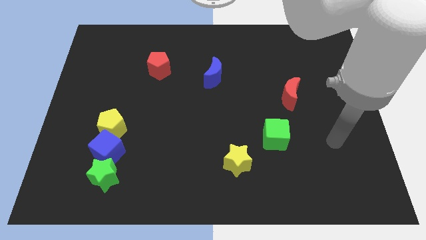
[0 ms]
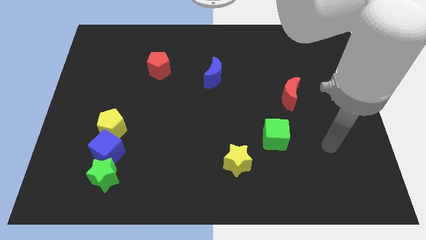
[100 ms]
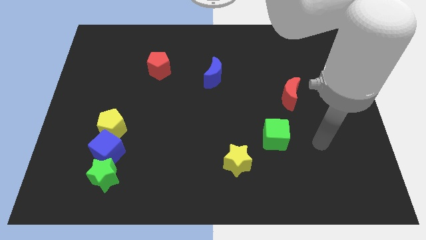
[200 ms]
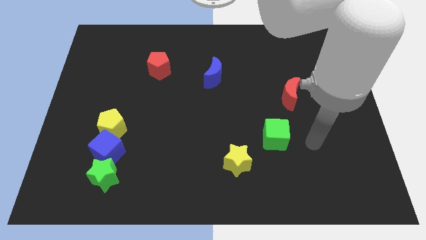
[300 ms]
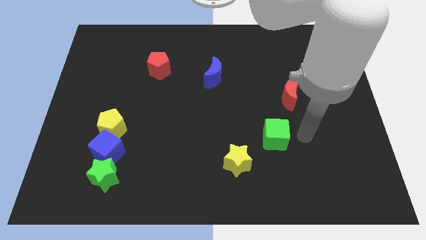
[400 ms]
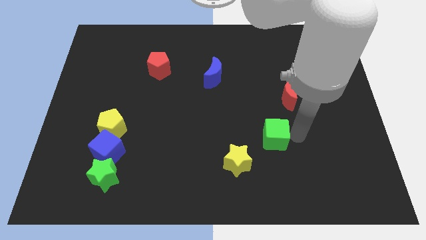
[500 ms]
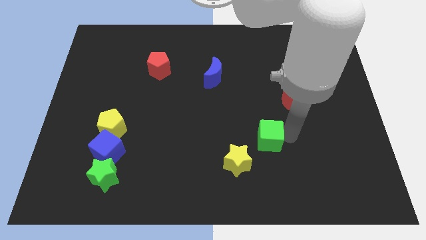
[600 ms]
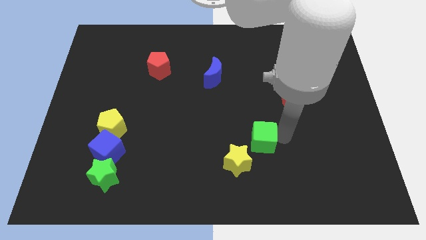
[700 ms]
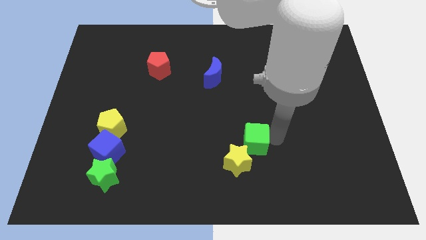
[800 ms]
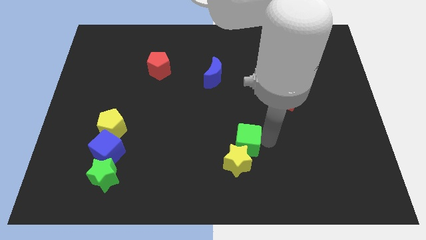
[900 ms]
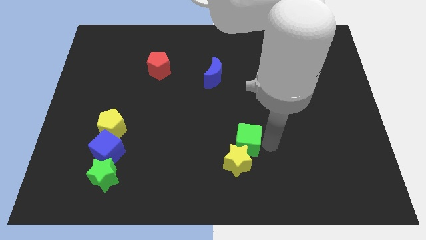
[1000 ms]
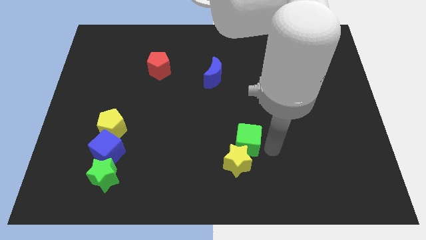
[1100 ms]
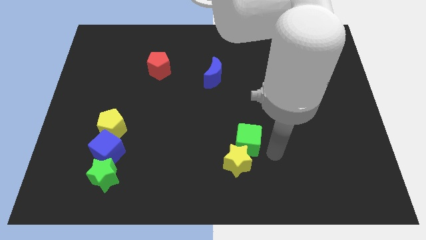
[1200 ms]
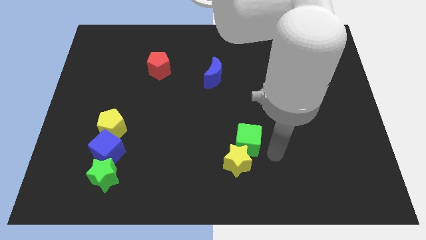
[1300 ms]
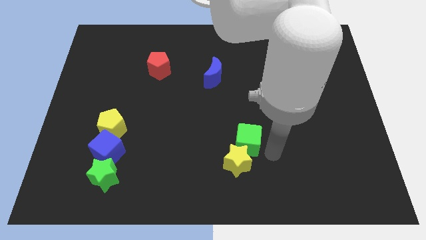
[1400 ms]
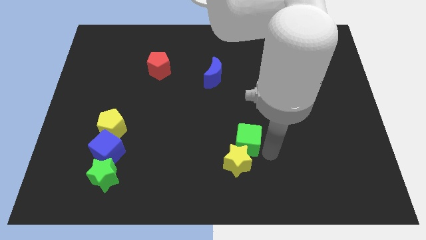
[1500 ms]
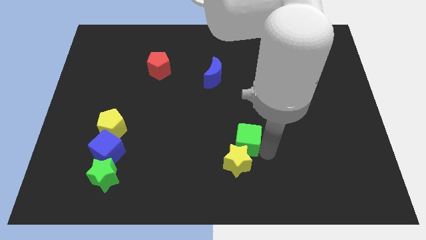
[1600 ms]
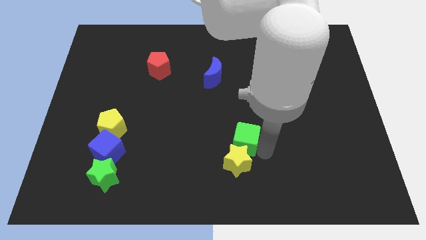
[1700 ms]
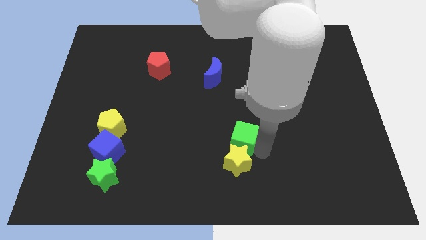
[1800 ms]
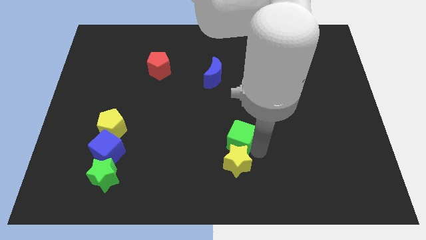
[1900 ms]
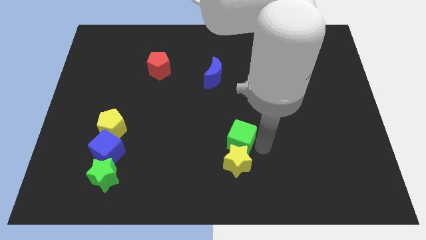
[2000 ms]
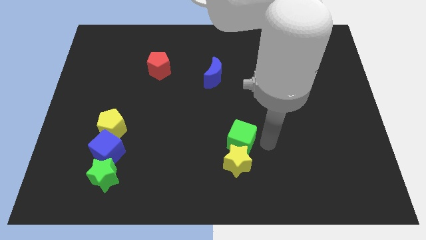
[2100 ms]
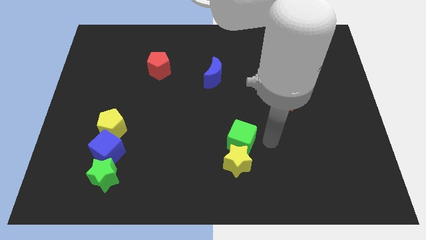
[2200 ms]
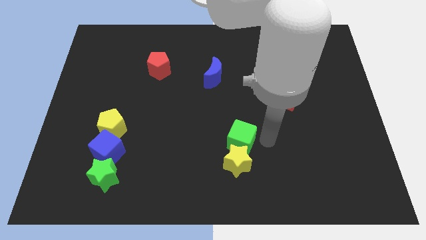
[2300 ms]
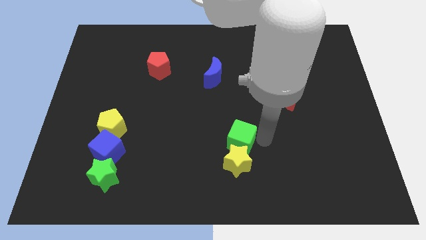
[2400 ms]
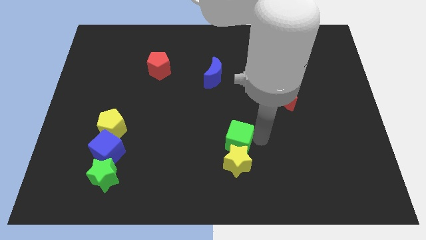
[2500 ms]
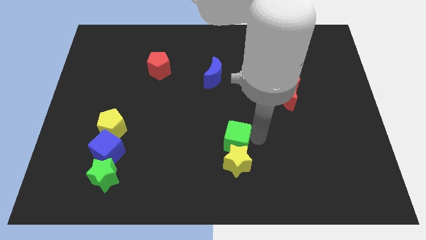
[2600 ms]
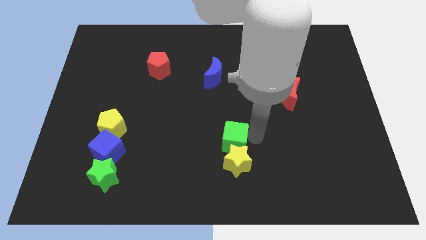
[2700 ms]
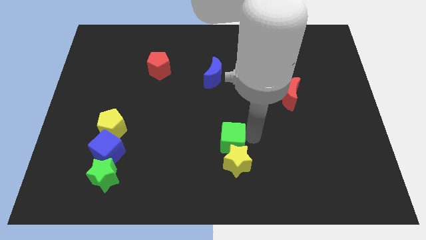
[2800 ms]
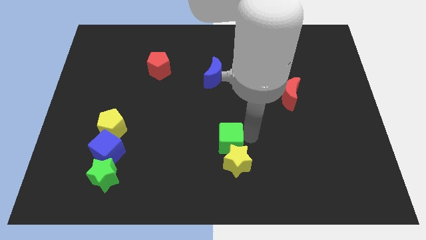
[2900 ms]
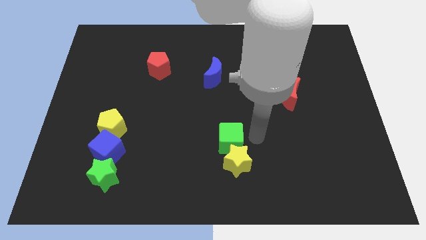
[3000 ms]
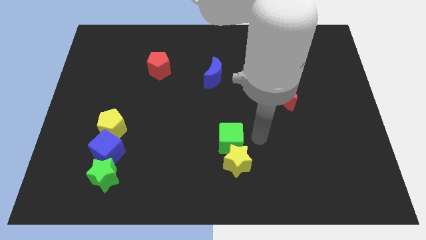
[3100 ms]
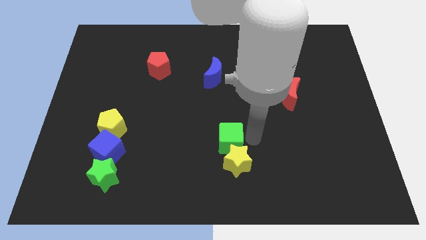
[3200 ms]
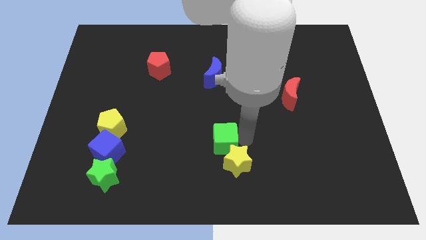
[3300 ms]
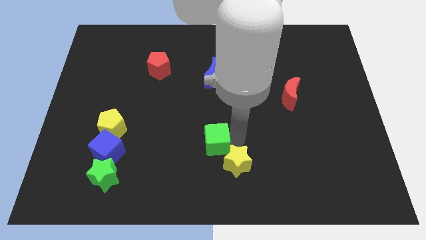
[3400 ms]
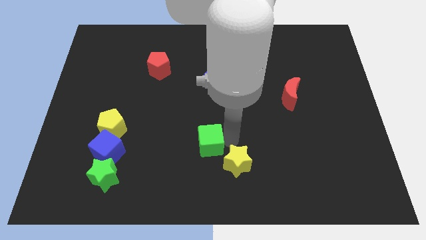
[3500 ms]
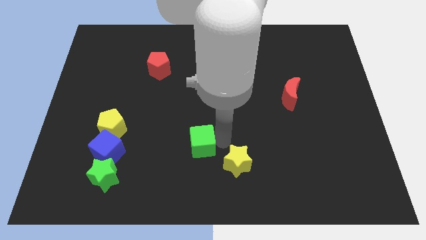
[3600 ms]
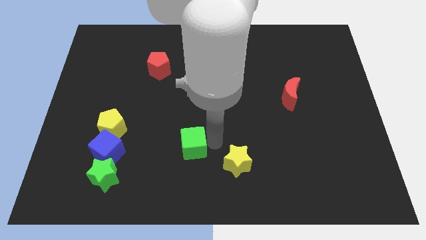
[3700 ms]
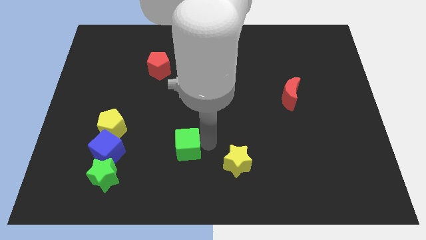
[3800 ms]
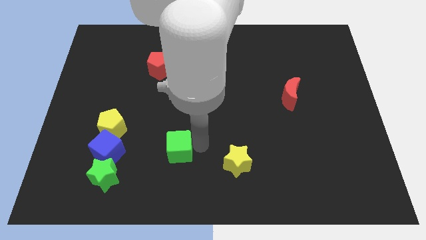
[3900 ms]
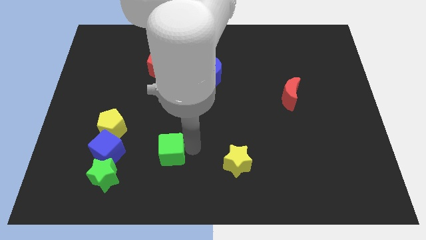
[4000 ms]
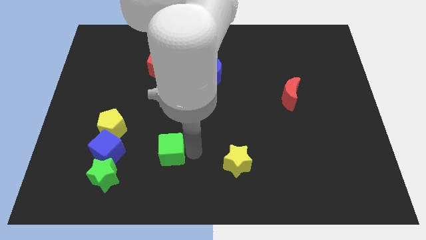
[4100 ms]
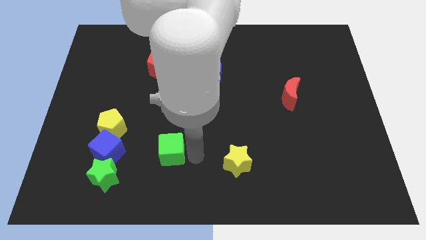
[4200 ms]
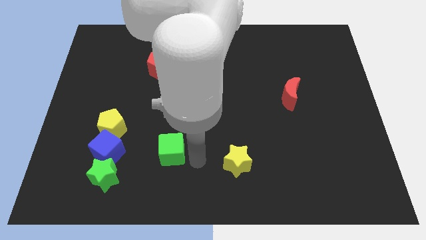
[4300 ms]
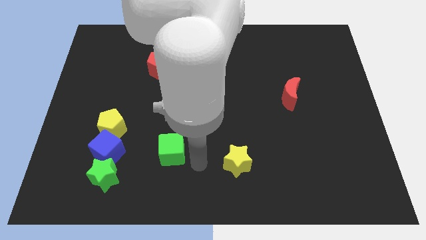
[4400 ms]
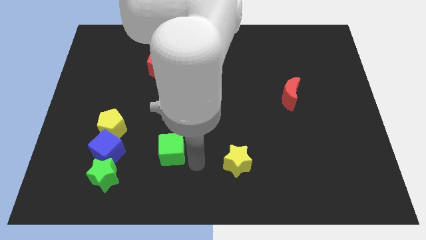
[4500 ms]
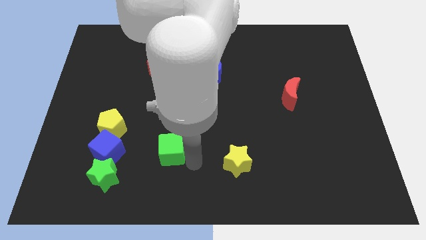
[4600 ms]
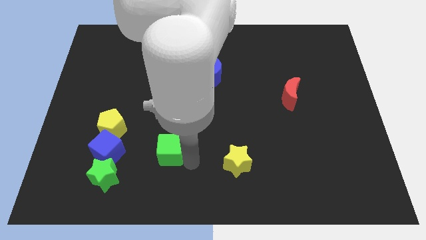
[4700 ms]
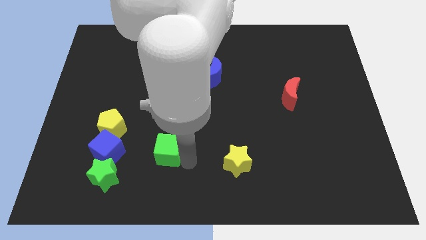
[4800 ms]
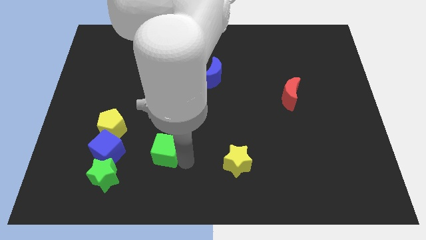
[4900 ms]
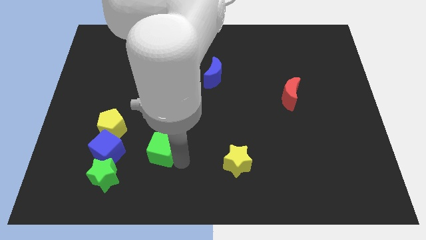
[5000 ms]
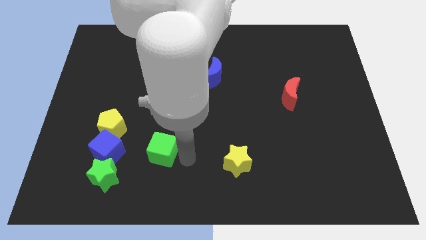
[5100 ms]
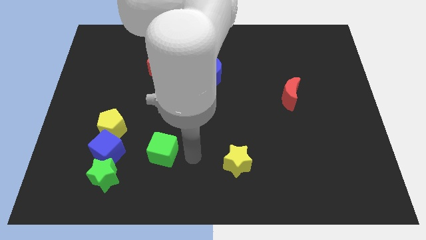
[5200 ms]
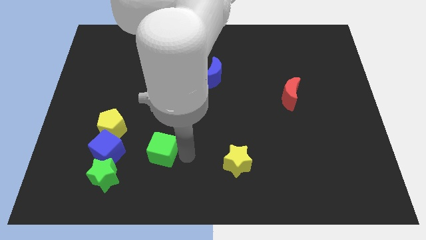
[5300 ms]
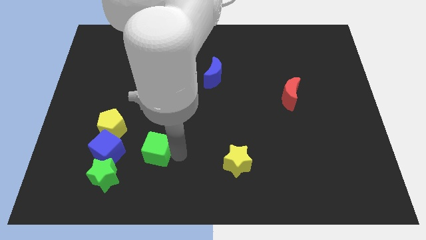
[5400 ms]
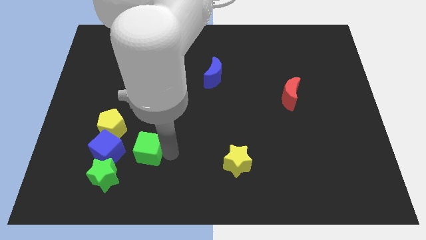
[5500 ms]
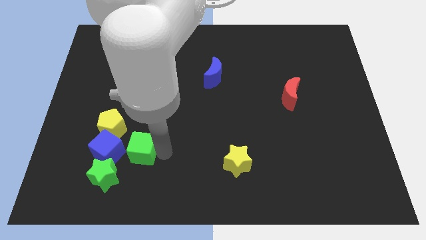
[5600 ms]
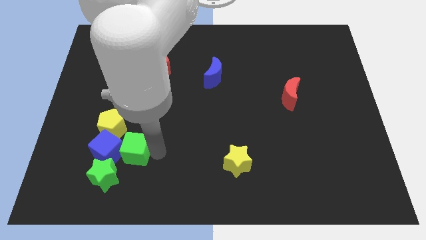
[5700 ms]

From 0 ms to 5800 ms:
slide the green cube close to the blue cube

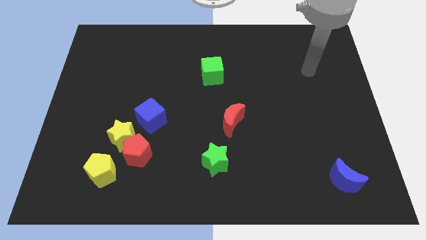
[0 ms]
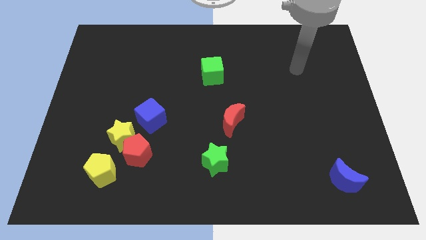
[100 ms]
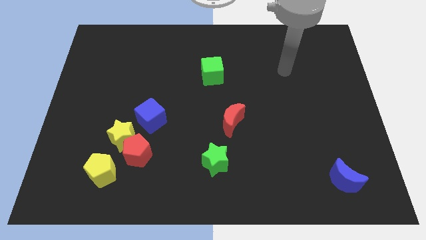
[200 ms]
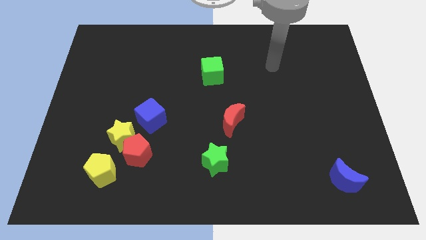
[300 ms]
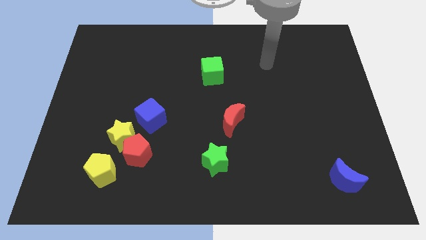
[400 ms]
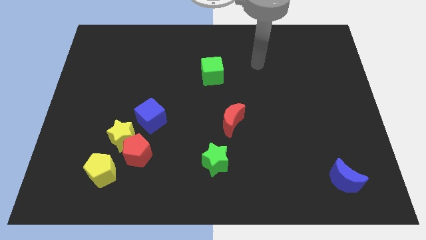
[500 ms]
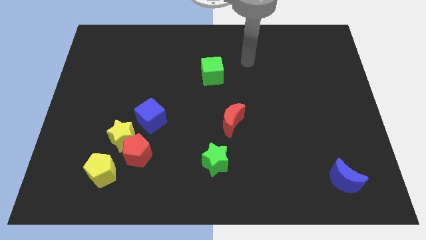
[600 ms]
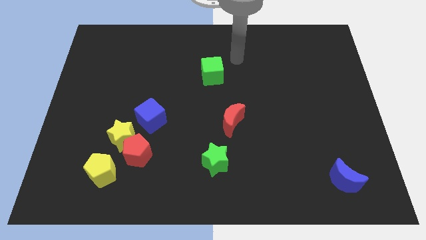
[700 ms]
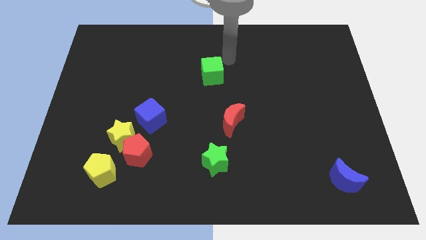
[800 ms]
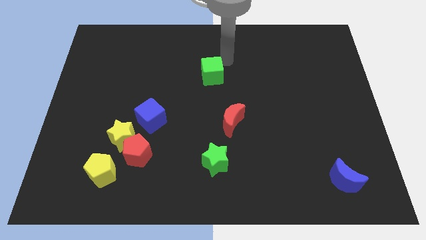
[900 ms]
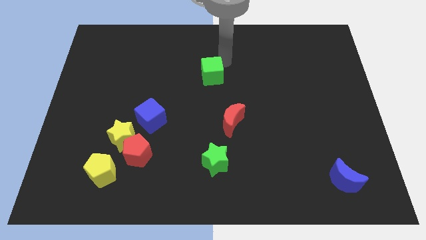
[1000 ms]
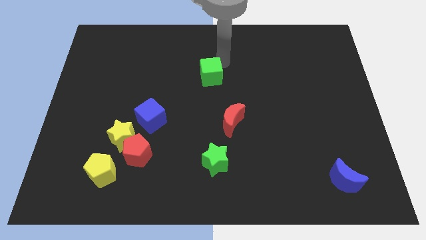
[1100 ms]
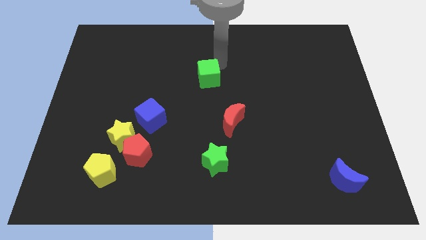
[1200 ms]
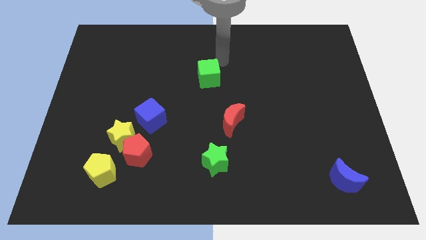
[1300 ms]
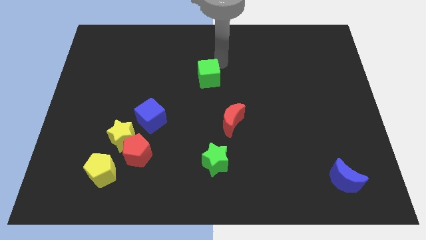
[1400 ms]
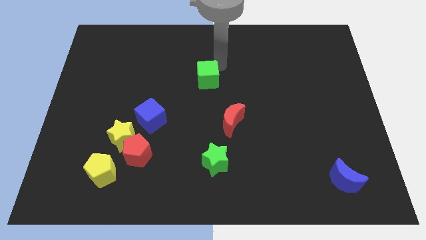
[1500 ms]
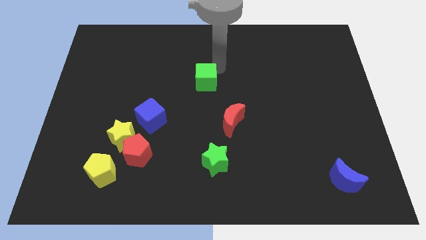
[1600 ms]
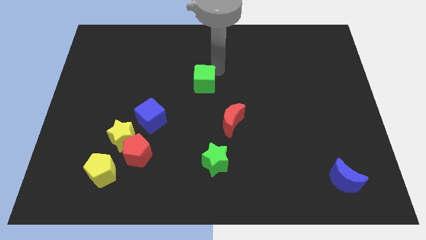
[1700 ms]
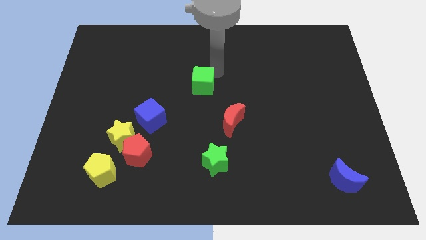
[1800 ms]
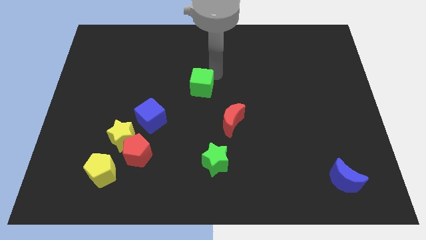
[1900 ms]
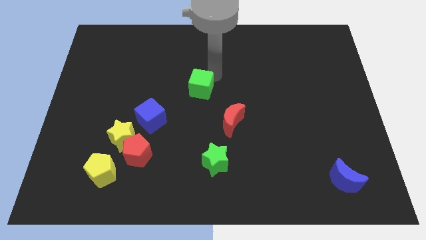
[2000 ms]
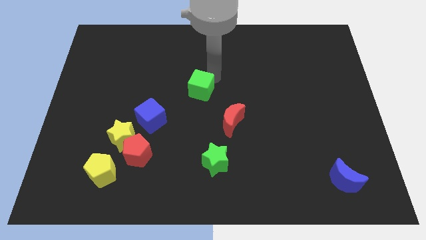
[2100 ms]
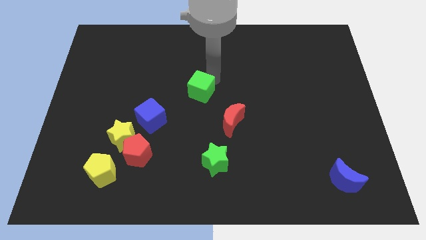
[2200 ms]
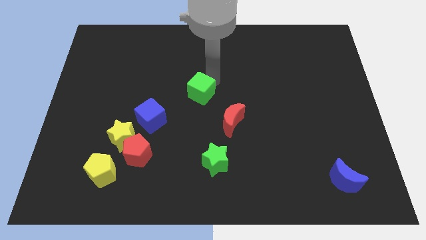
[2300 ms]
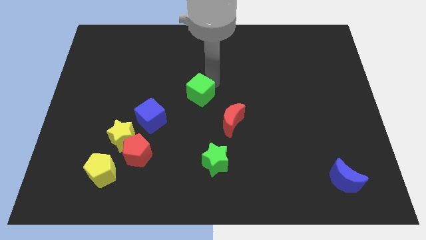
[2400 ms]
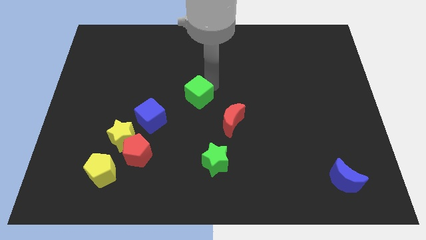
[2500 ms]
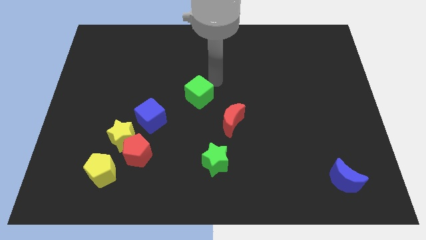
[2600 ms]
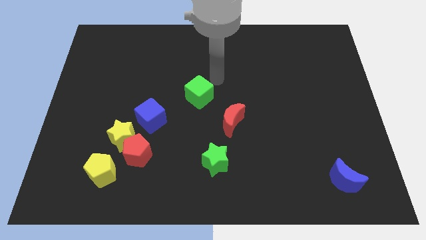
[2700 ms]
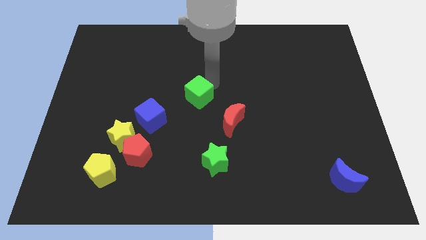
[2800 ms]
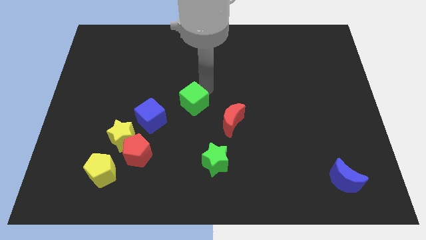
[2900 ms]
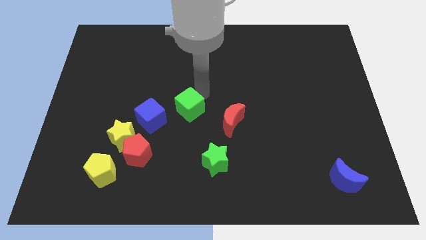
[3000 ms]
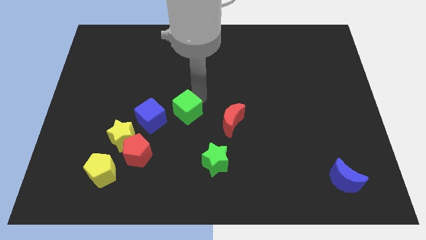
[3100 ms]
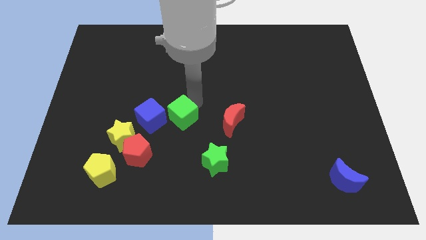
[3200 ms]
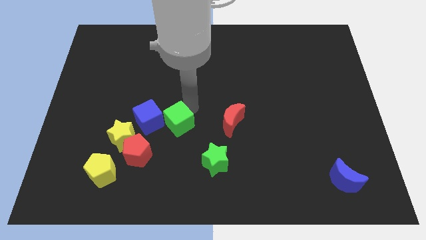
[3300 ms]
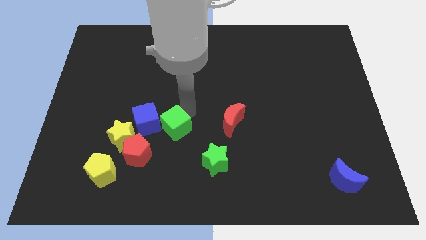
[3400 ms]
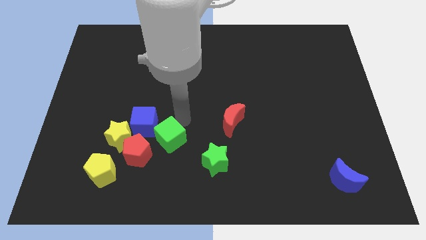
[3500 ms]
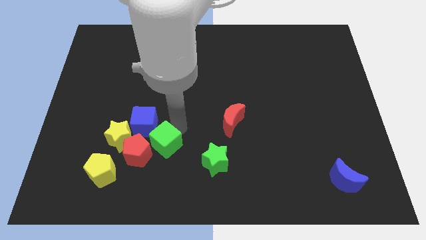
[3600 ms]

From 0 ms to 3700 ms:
put the green cube to the red pentagon
